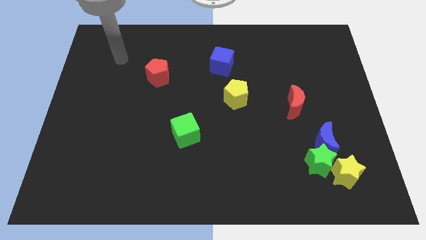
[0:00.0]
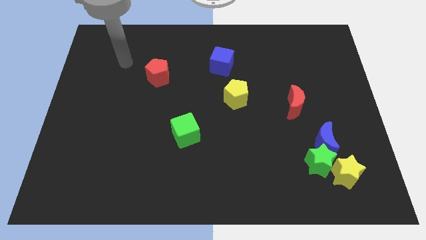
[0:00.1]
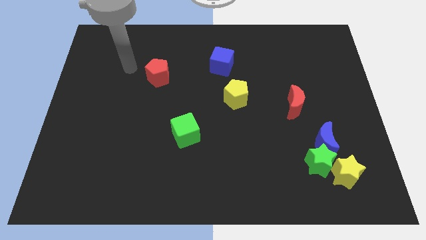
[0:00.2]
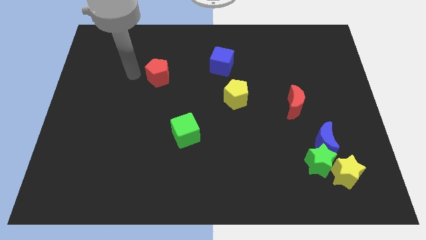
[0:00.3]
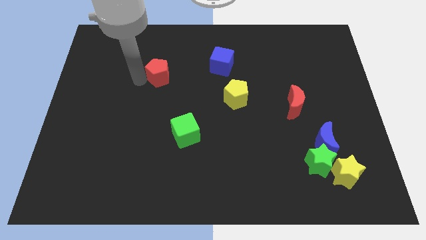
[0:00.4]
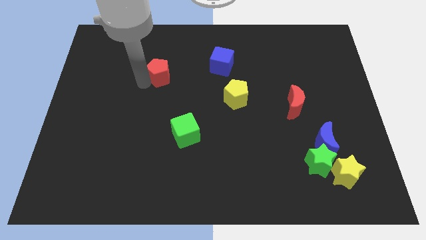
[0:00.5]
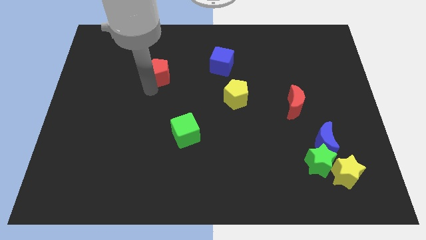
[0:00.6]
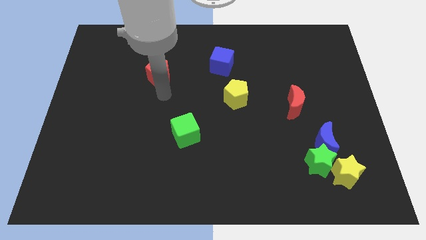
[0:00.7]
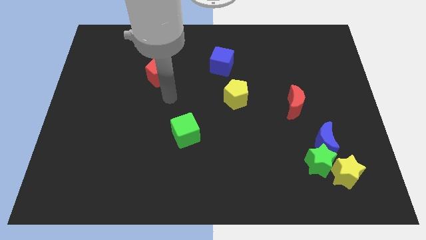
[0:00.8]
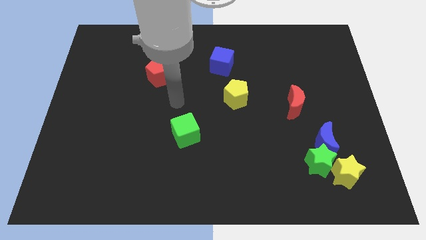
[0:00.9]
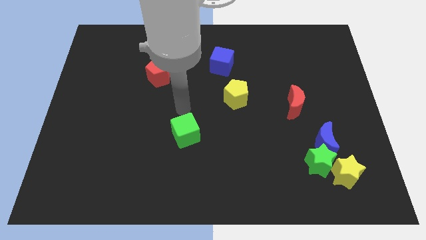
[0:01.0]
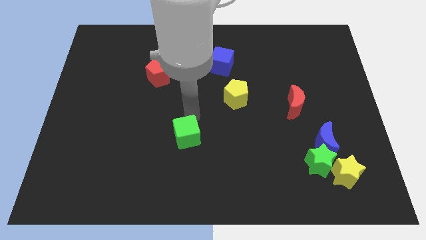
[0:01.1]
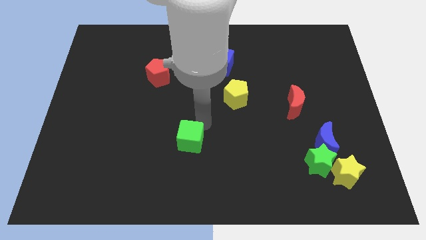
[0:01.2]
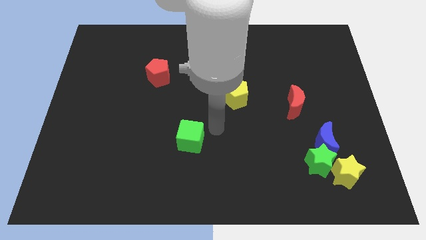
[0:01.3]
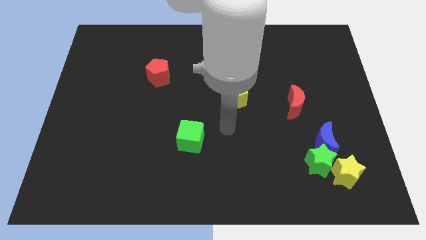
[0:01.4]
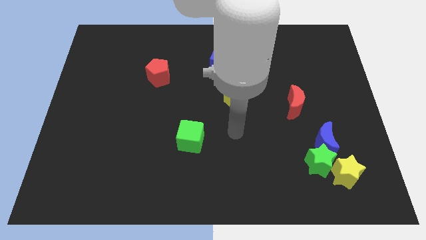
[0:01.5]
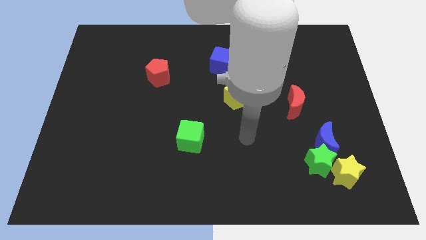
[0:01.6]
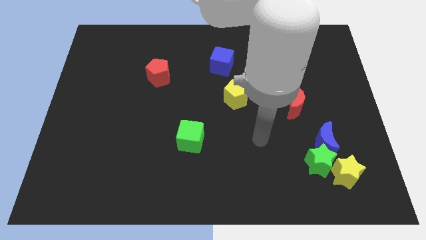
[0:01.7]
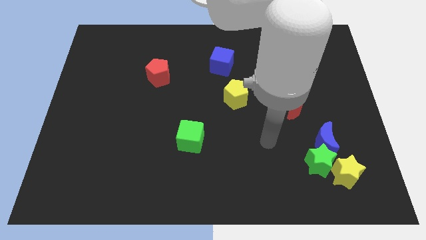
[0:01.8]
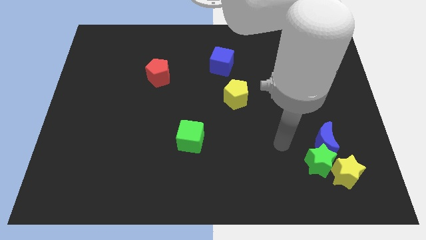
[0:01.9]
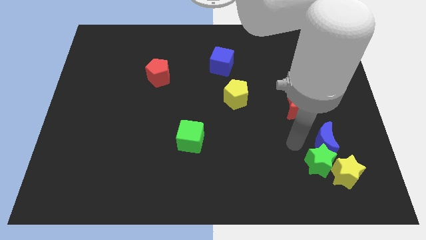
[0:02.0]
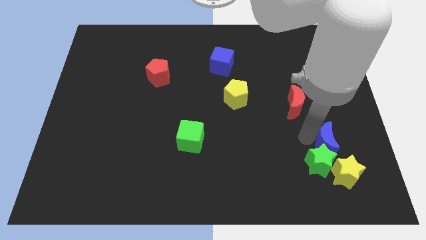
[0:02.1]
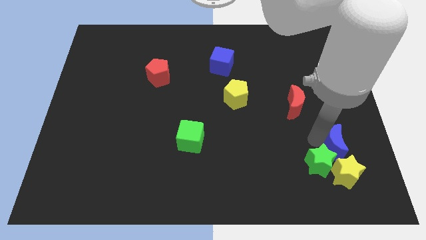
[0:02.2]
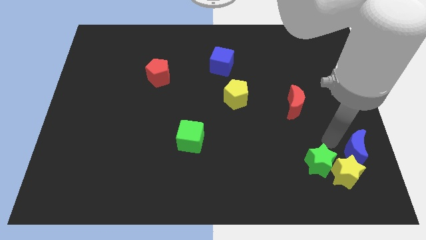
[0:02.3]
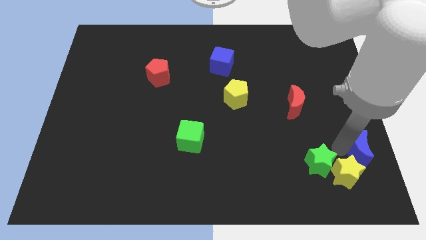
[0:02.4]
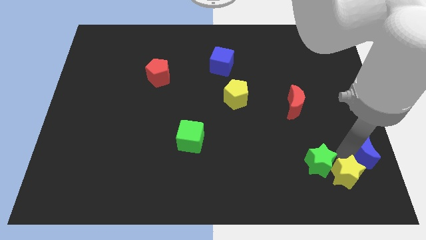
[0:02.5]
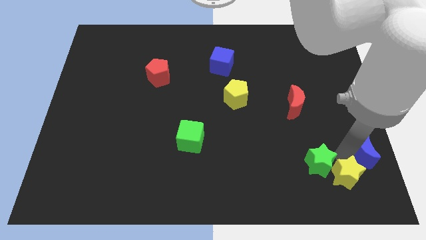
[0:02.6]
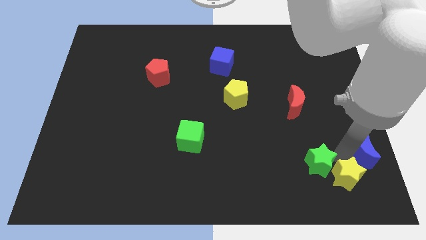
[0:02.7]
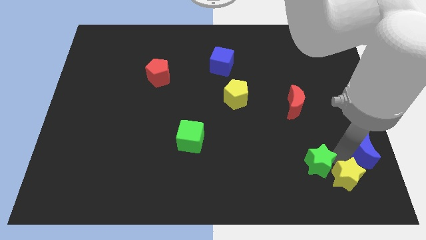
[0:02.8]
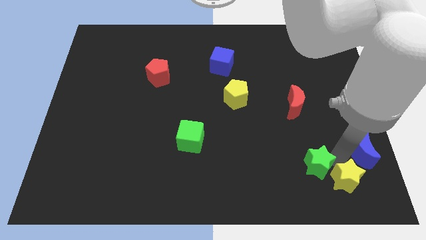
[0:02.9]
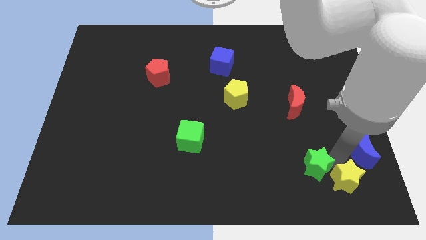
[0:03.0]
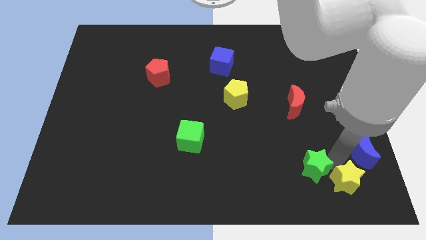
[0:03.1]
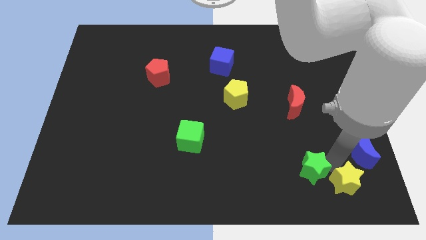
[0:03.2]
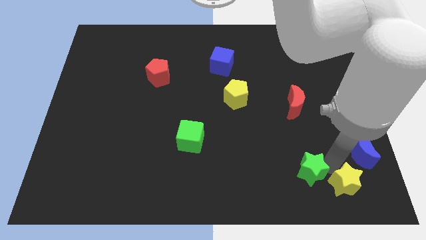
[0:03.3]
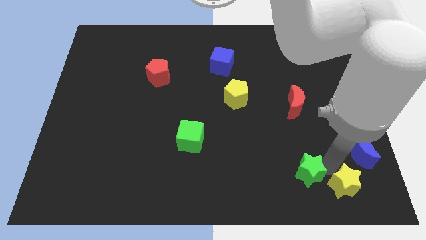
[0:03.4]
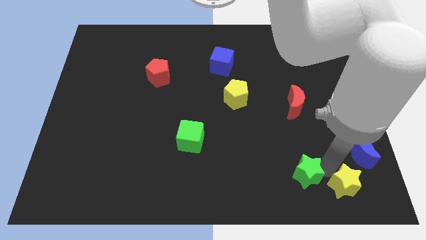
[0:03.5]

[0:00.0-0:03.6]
separate the green star from the blue moon and yellow star

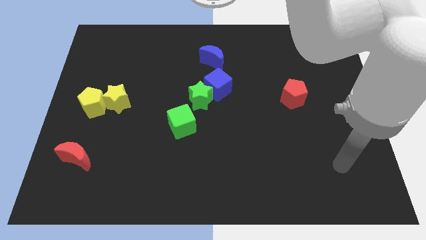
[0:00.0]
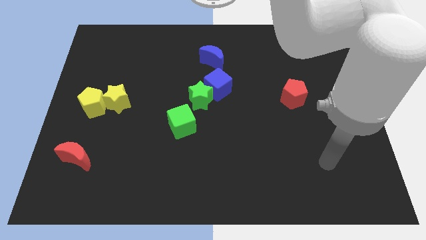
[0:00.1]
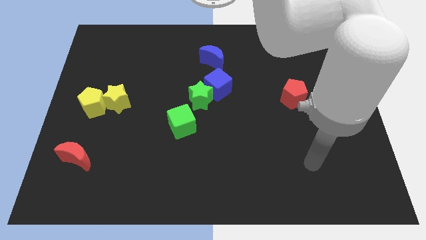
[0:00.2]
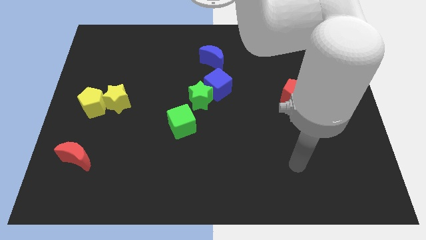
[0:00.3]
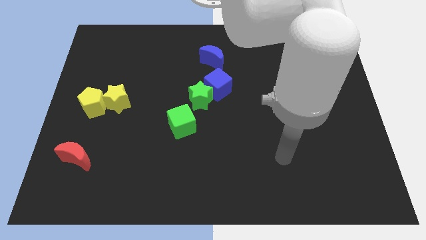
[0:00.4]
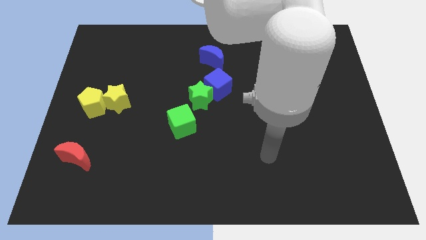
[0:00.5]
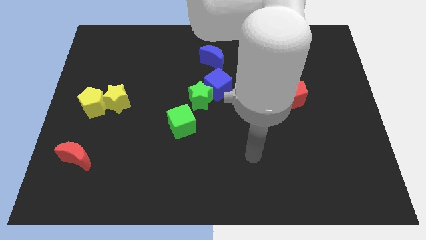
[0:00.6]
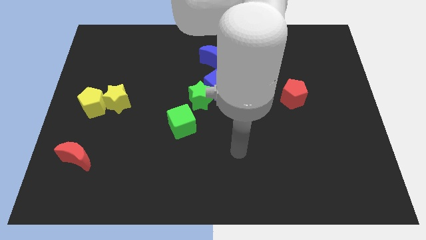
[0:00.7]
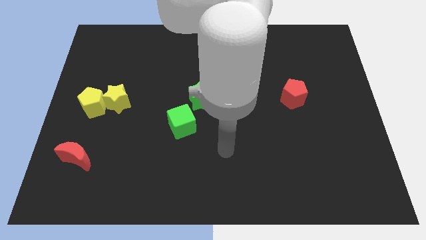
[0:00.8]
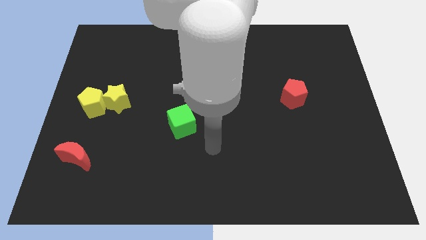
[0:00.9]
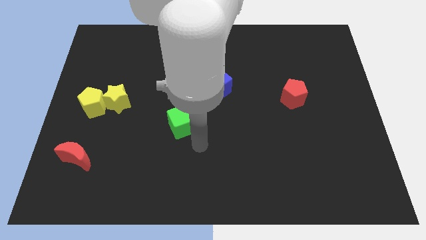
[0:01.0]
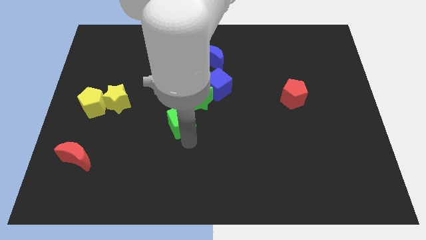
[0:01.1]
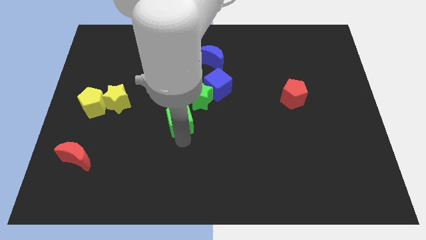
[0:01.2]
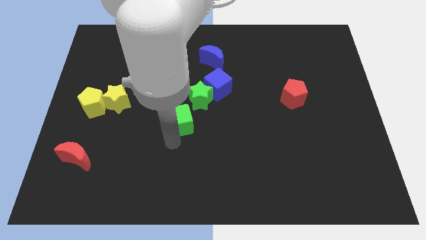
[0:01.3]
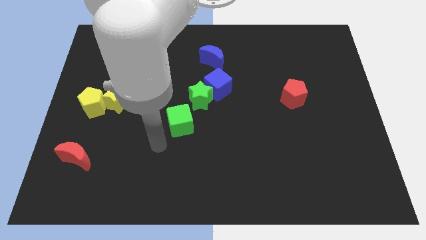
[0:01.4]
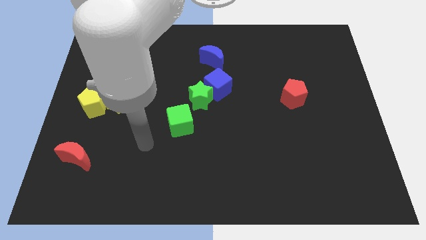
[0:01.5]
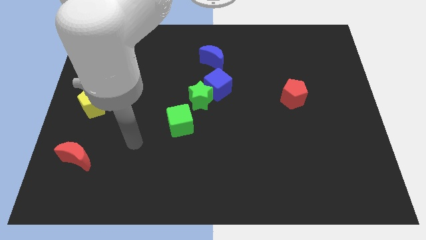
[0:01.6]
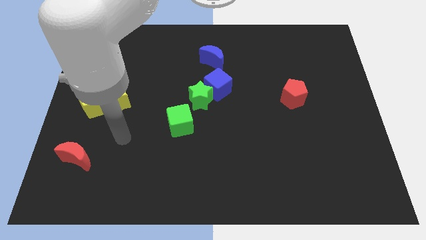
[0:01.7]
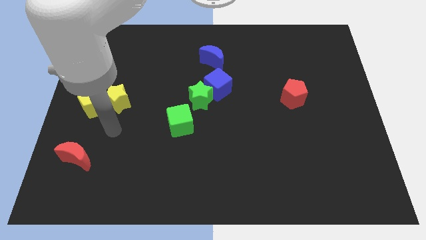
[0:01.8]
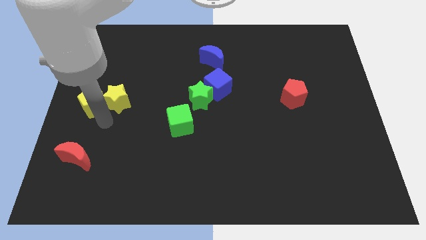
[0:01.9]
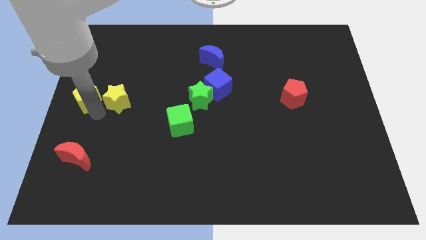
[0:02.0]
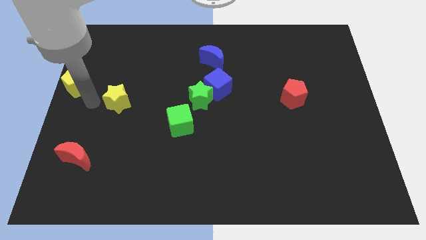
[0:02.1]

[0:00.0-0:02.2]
move the yellow star away from the yellow pentagon

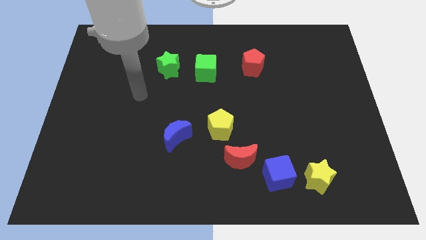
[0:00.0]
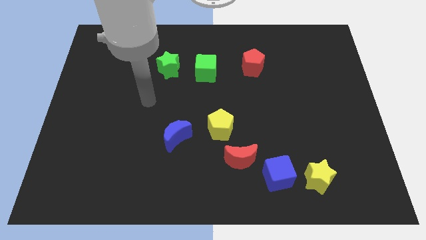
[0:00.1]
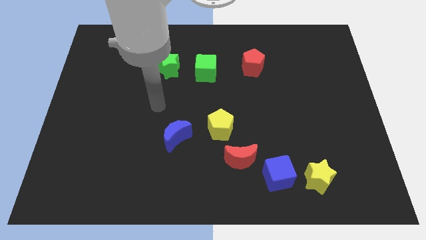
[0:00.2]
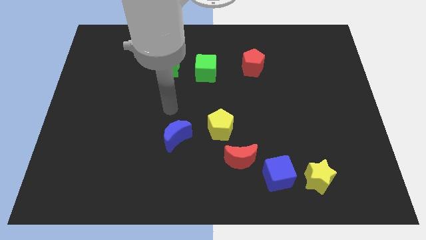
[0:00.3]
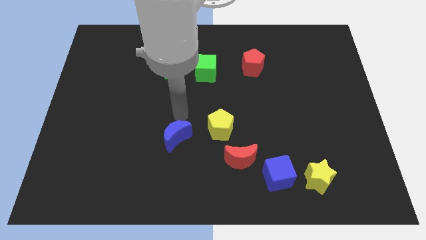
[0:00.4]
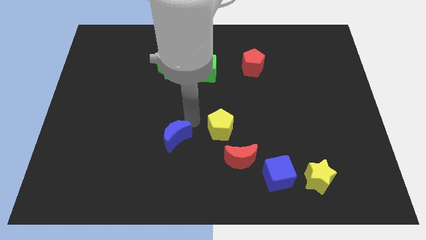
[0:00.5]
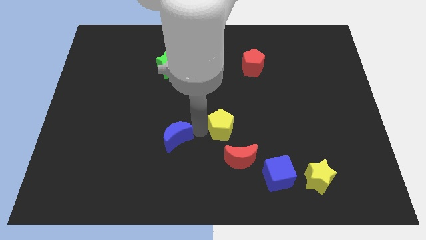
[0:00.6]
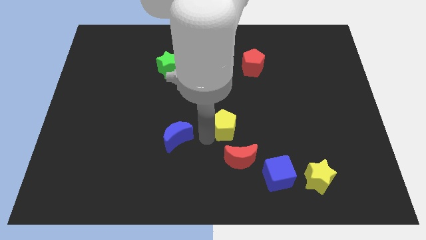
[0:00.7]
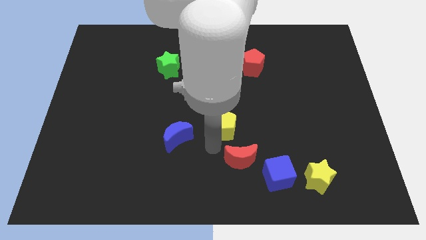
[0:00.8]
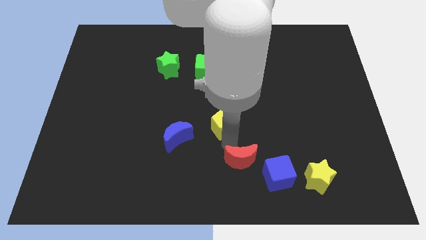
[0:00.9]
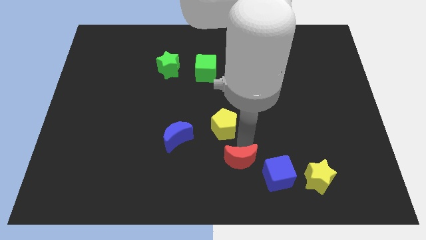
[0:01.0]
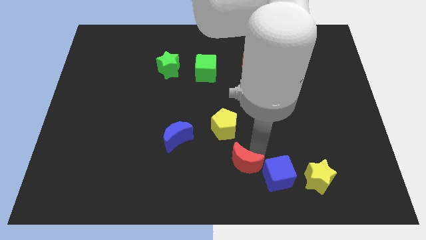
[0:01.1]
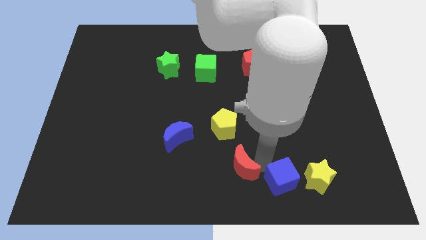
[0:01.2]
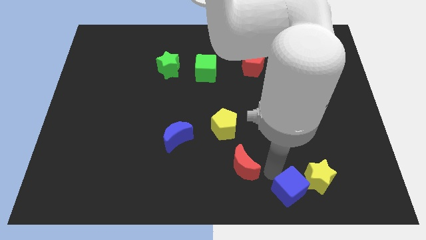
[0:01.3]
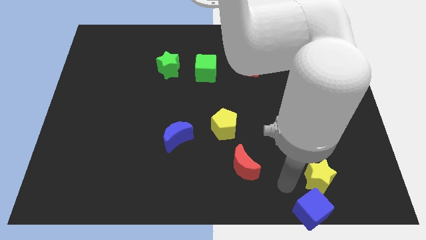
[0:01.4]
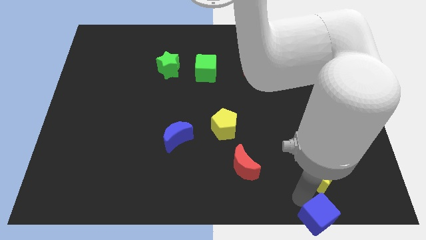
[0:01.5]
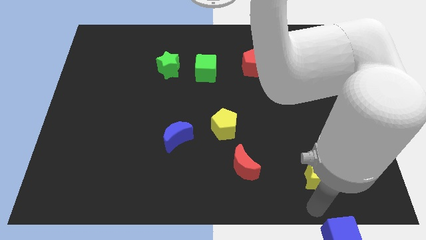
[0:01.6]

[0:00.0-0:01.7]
pull the yellow star apart from the blue cube

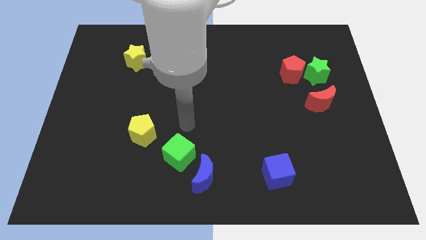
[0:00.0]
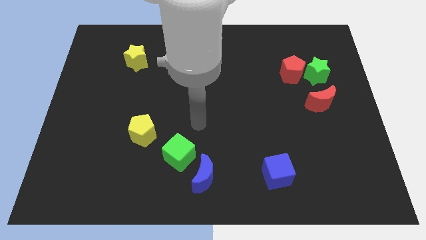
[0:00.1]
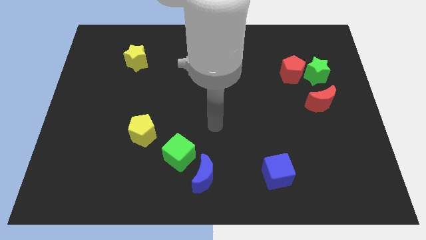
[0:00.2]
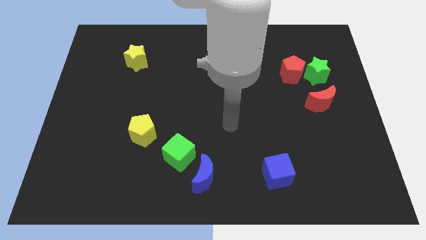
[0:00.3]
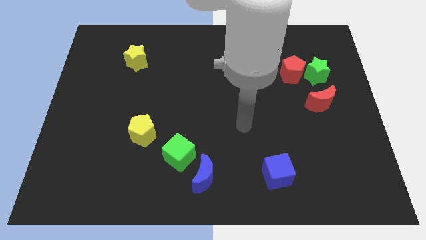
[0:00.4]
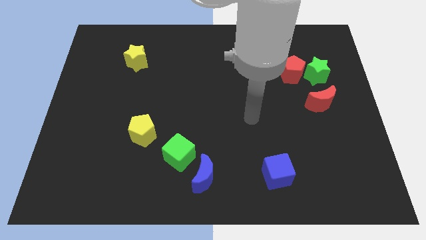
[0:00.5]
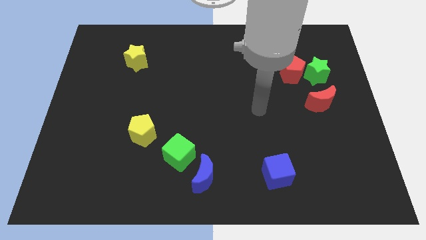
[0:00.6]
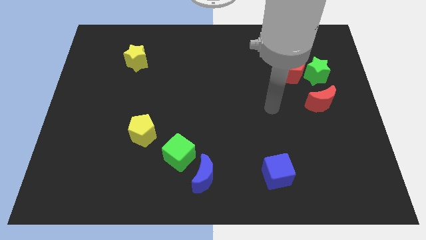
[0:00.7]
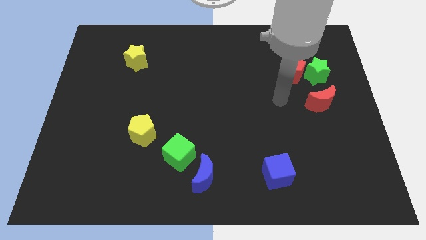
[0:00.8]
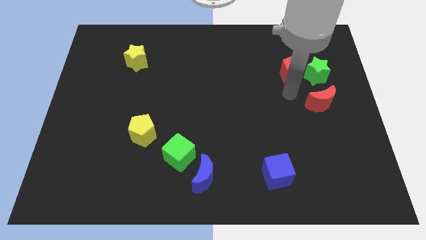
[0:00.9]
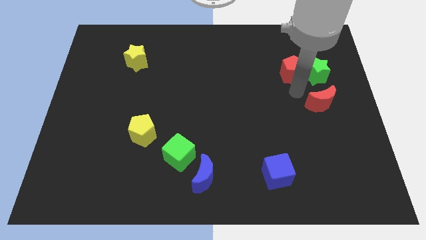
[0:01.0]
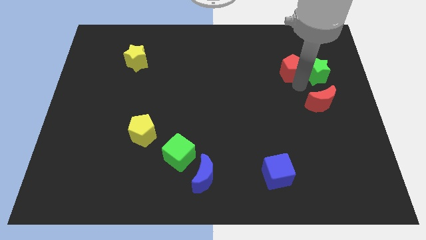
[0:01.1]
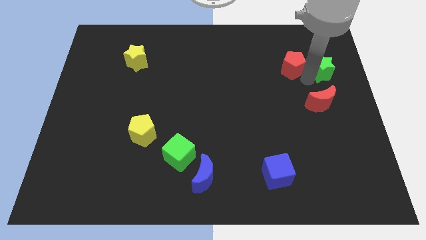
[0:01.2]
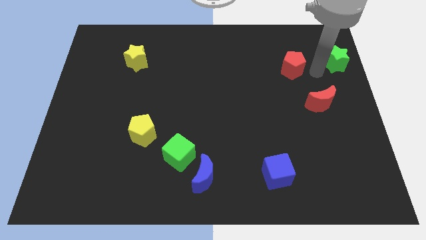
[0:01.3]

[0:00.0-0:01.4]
pull the red pentagon apart from the green star

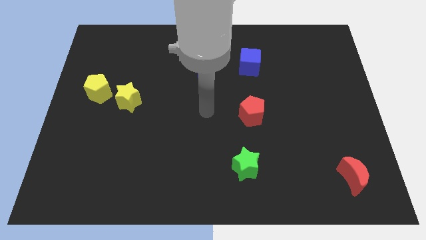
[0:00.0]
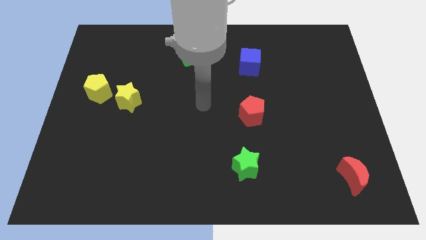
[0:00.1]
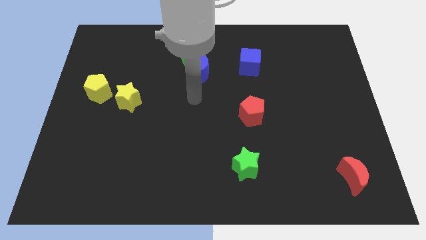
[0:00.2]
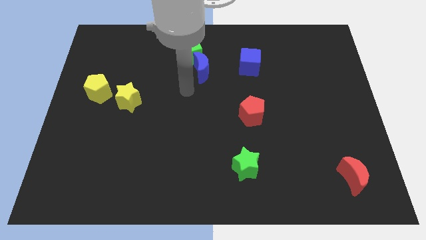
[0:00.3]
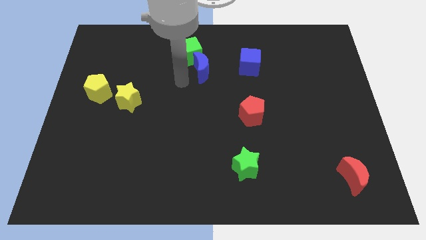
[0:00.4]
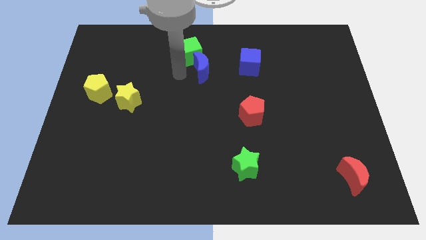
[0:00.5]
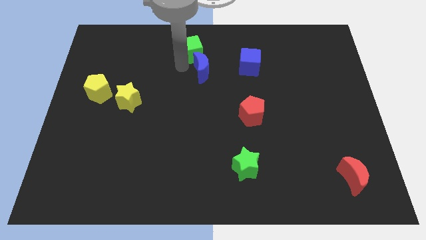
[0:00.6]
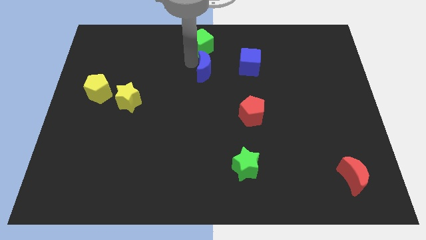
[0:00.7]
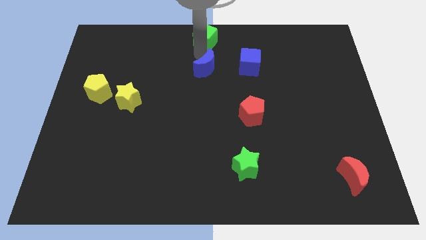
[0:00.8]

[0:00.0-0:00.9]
pull the blue moon apart from the green cube
